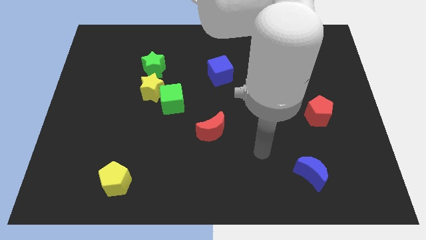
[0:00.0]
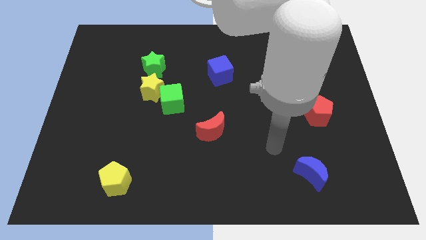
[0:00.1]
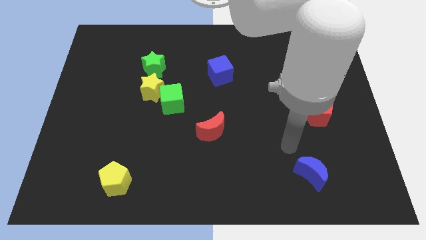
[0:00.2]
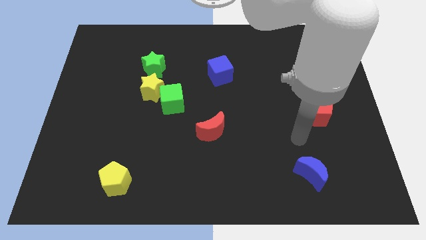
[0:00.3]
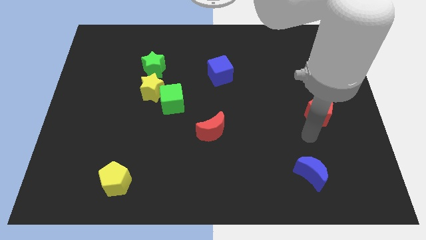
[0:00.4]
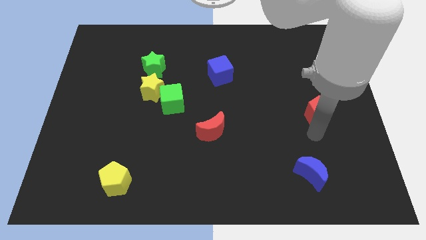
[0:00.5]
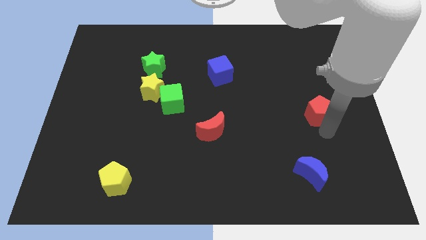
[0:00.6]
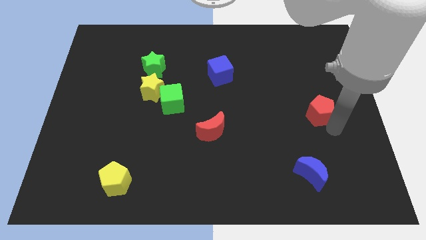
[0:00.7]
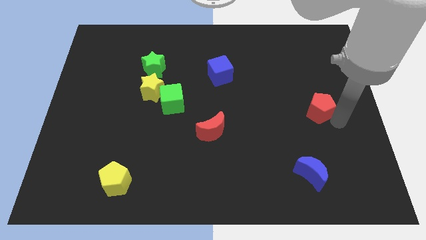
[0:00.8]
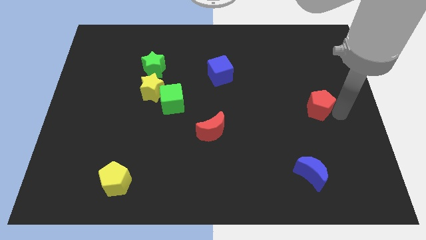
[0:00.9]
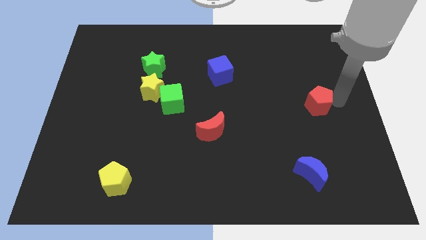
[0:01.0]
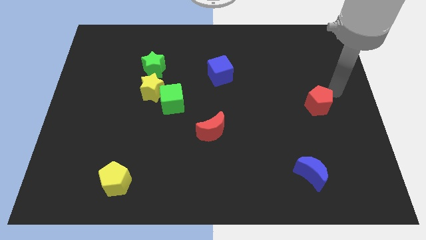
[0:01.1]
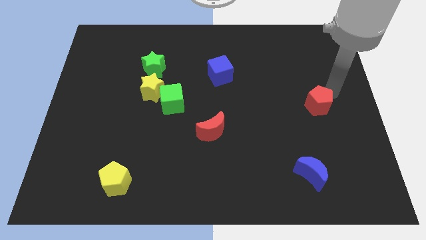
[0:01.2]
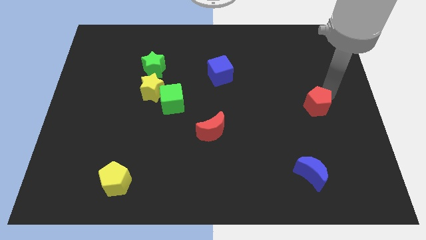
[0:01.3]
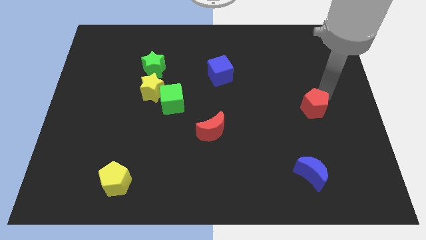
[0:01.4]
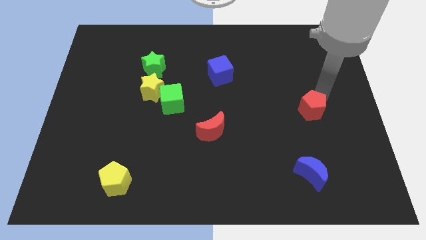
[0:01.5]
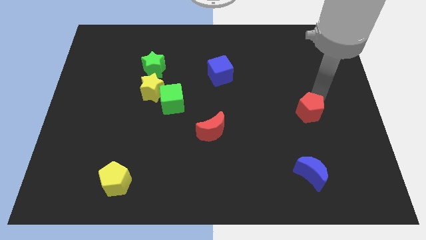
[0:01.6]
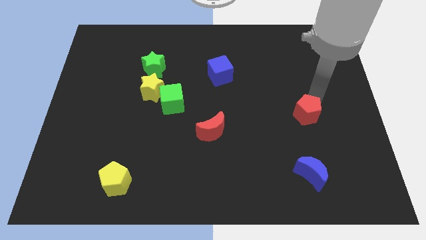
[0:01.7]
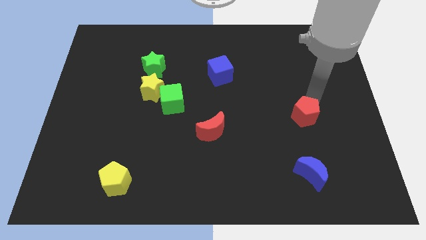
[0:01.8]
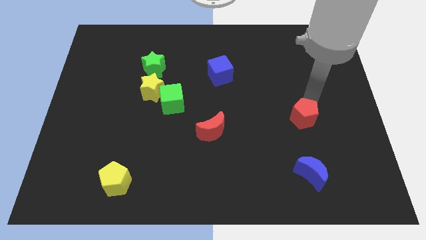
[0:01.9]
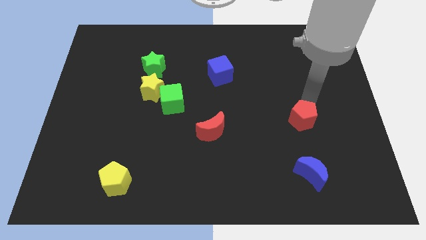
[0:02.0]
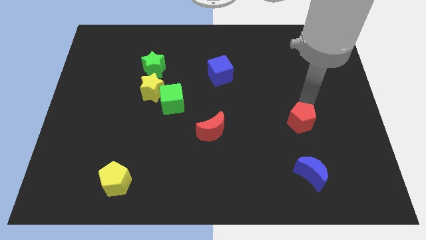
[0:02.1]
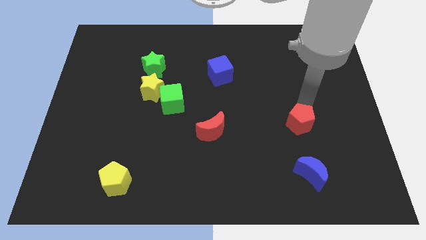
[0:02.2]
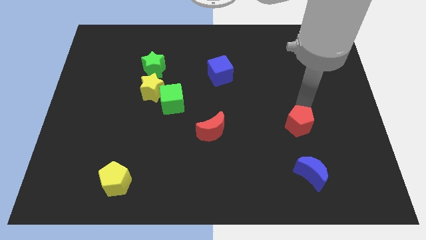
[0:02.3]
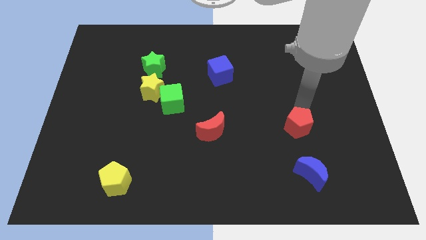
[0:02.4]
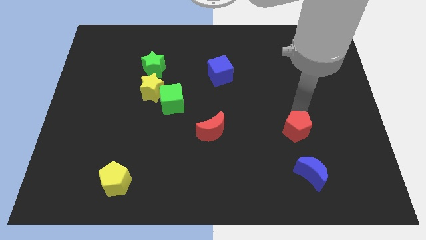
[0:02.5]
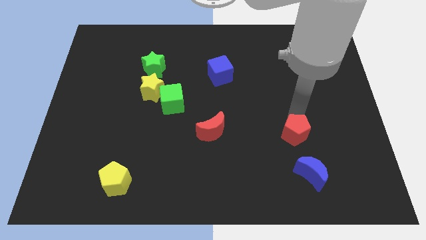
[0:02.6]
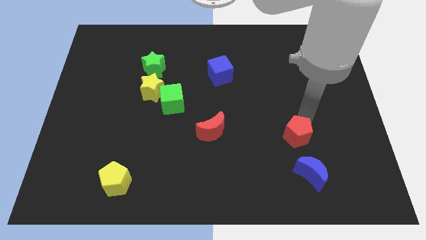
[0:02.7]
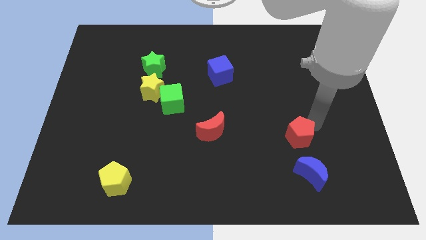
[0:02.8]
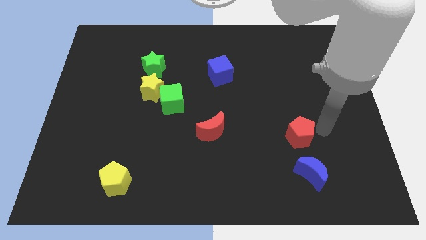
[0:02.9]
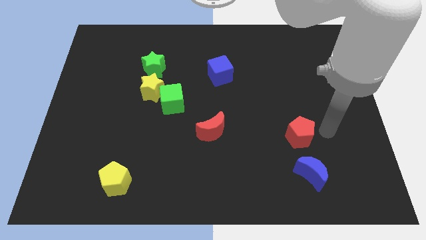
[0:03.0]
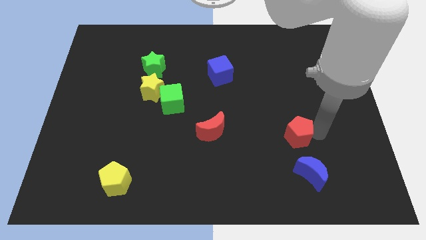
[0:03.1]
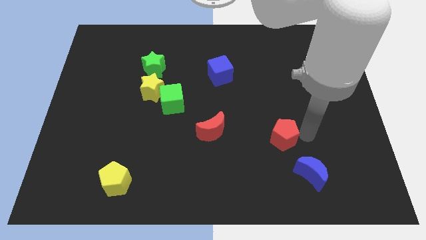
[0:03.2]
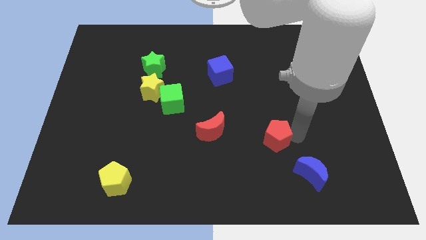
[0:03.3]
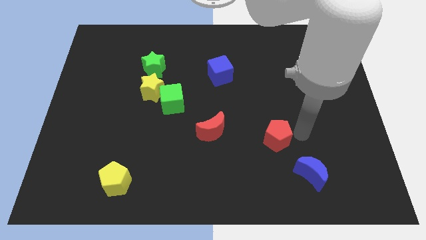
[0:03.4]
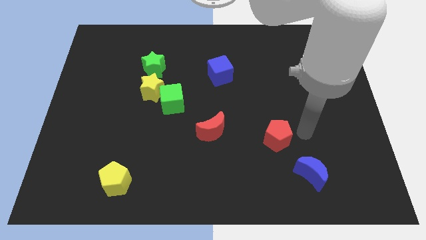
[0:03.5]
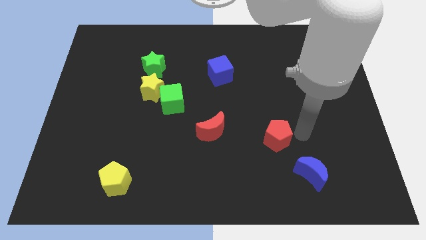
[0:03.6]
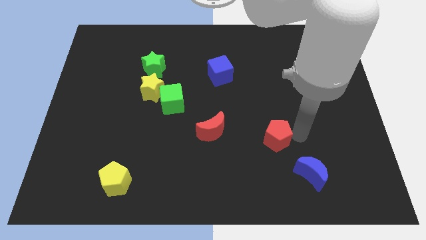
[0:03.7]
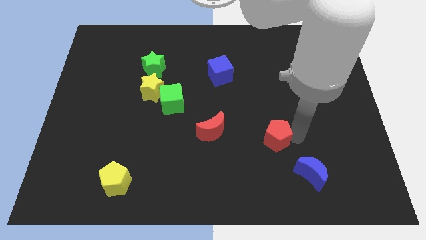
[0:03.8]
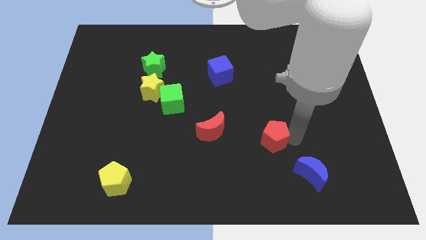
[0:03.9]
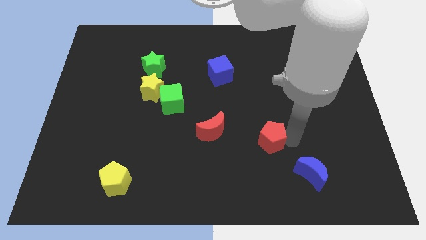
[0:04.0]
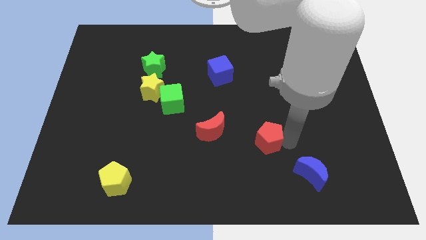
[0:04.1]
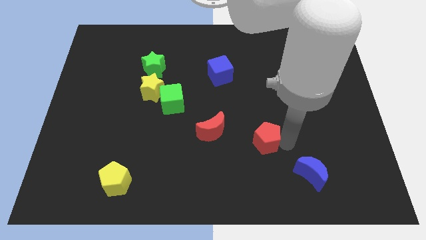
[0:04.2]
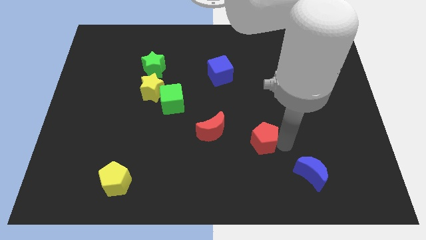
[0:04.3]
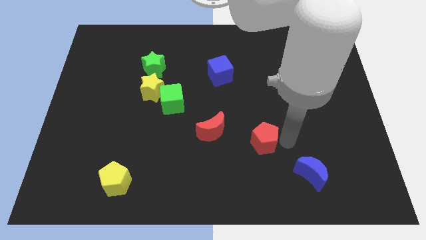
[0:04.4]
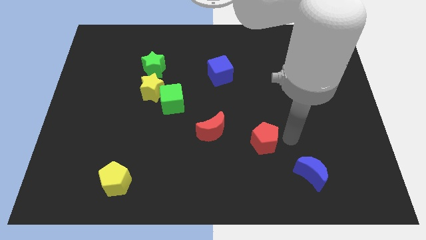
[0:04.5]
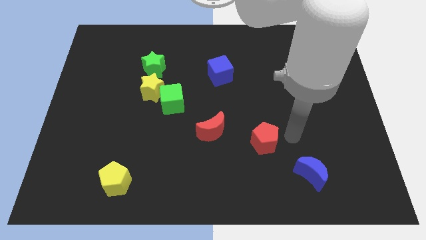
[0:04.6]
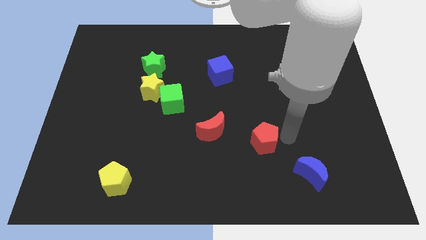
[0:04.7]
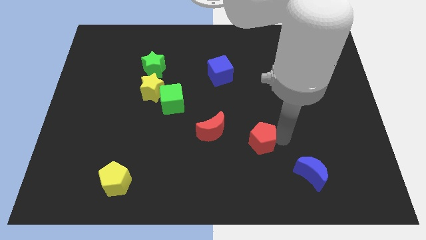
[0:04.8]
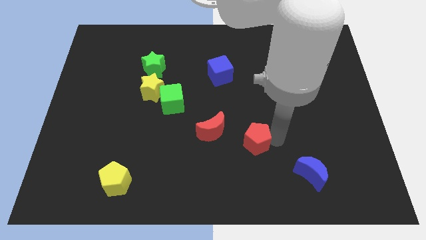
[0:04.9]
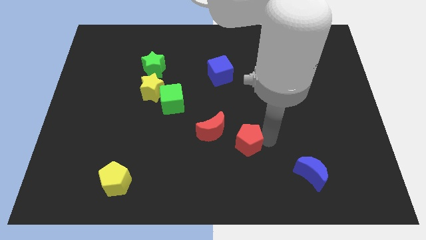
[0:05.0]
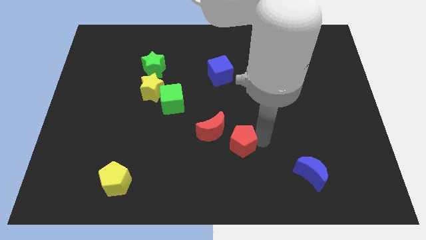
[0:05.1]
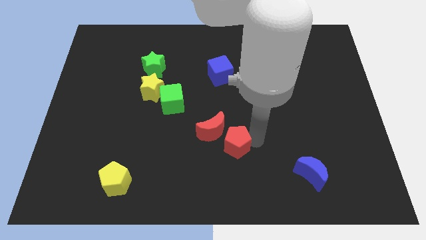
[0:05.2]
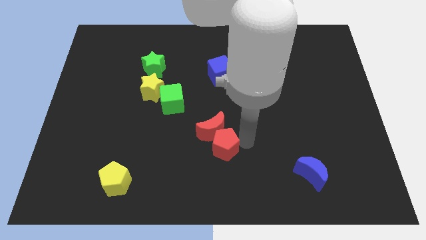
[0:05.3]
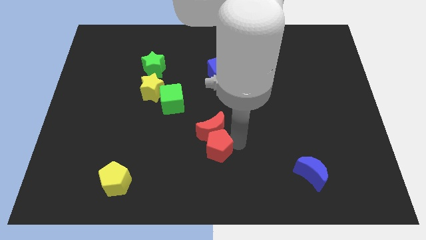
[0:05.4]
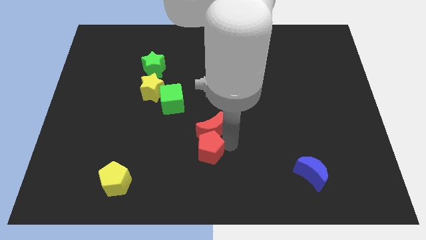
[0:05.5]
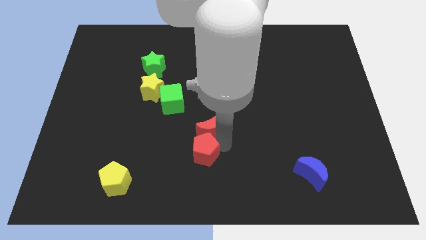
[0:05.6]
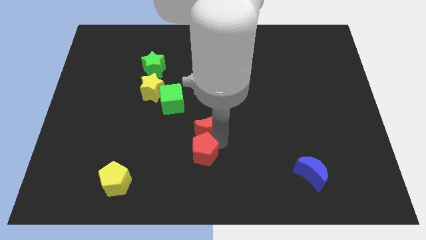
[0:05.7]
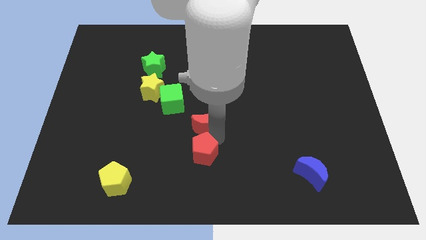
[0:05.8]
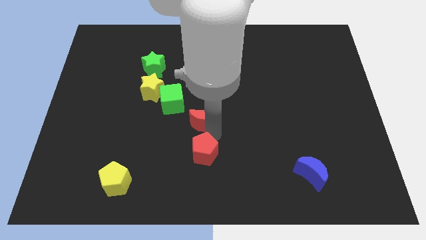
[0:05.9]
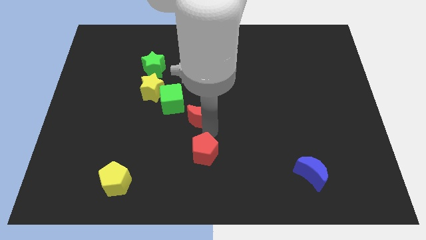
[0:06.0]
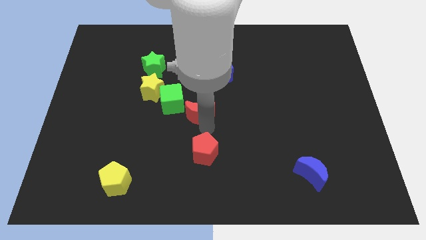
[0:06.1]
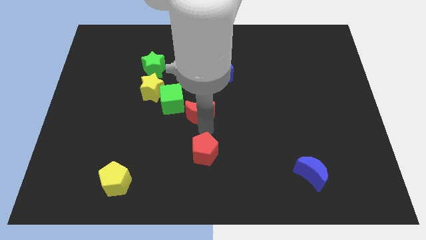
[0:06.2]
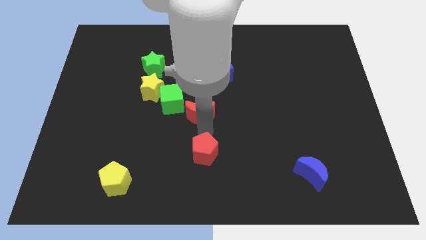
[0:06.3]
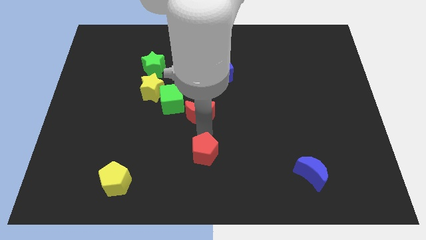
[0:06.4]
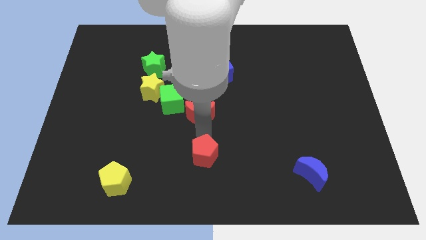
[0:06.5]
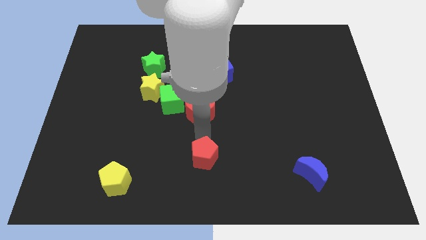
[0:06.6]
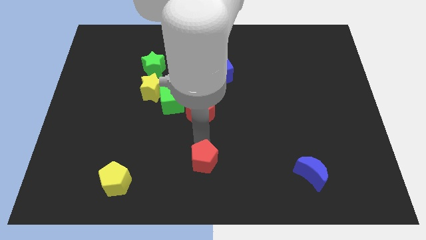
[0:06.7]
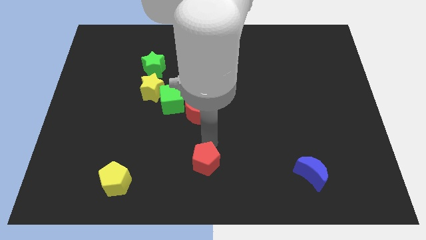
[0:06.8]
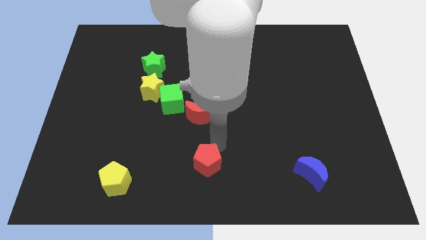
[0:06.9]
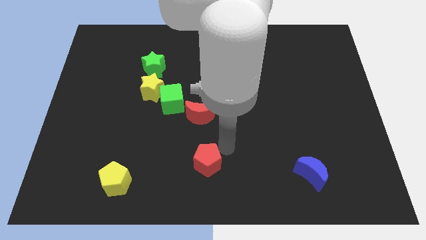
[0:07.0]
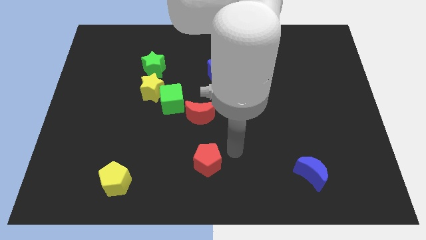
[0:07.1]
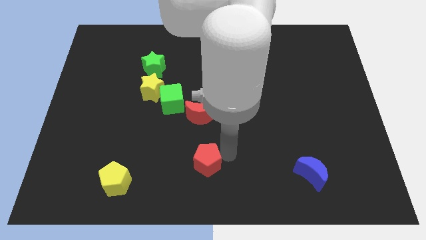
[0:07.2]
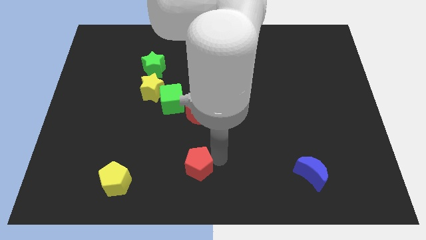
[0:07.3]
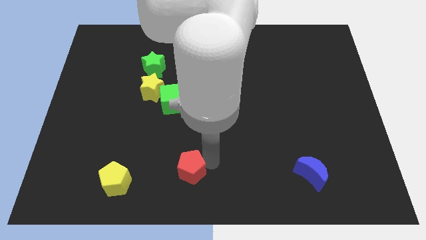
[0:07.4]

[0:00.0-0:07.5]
slide the red pentagon just right of the yellow pentagon

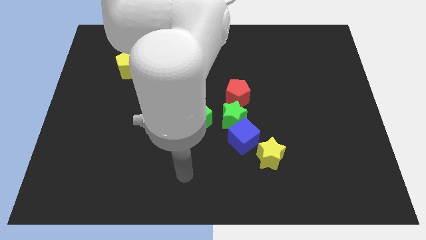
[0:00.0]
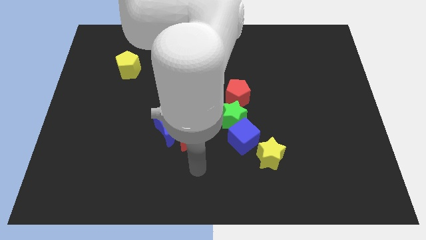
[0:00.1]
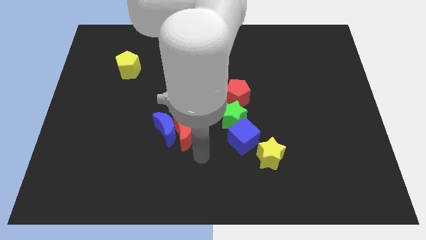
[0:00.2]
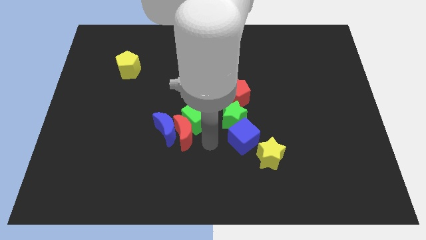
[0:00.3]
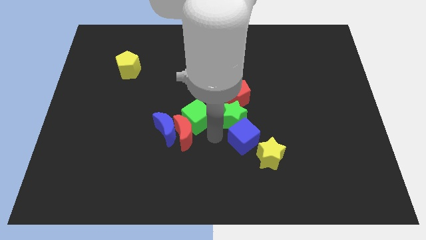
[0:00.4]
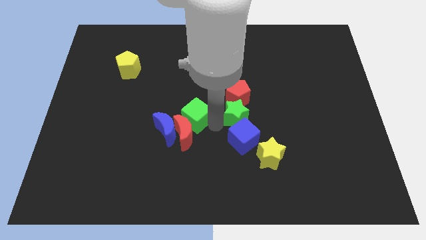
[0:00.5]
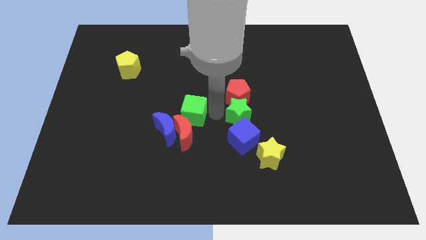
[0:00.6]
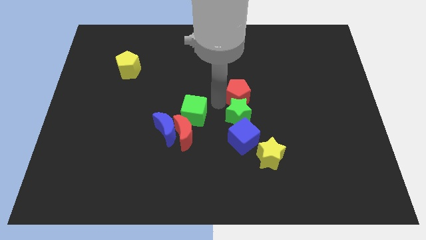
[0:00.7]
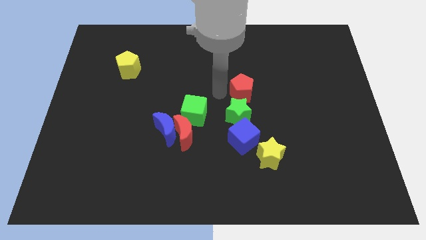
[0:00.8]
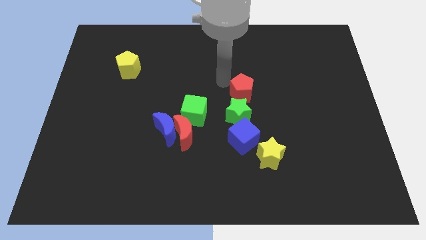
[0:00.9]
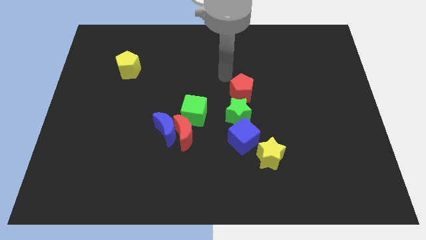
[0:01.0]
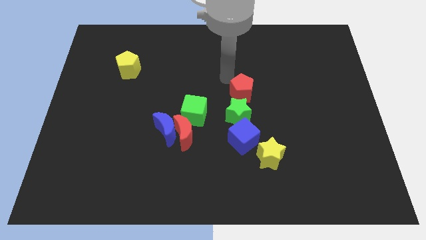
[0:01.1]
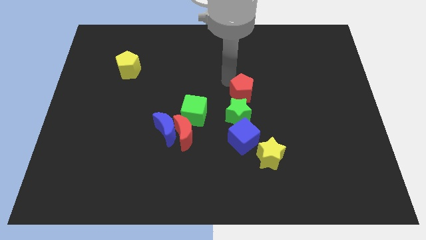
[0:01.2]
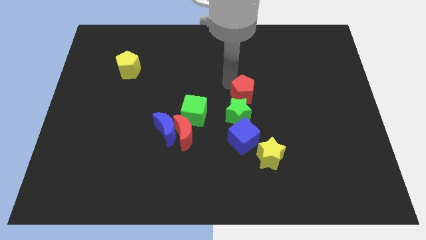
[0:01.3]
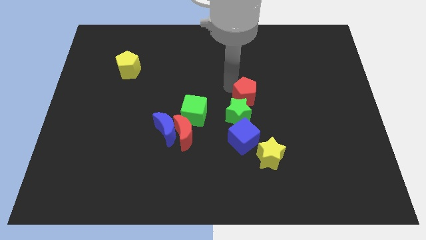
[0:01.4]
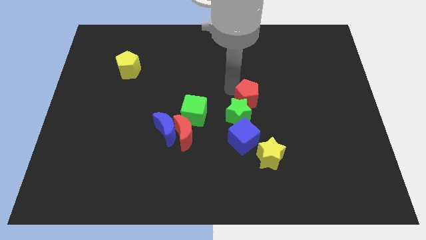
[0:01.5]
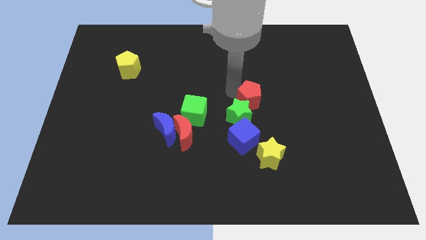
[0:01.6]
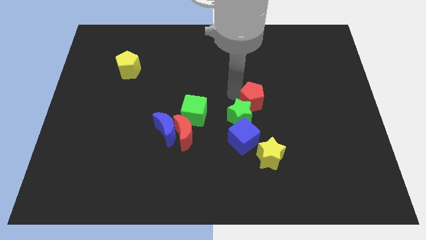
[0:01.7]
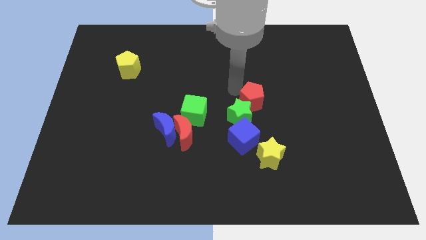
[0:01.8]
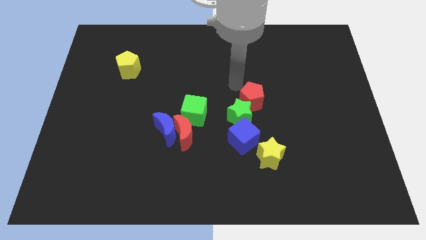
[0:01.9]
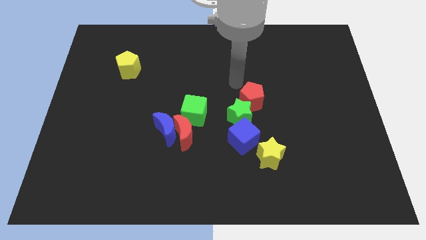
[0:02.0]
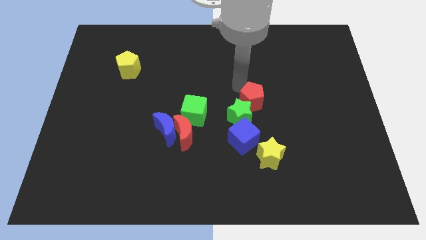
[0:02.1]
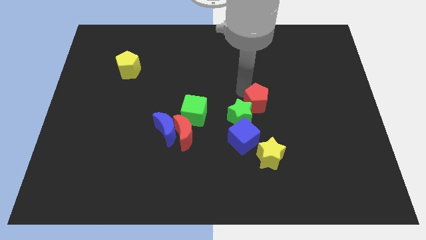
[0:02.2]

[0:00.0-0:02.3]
move the red pentagon to the top of the yellow star
